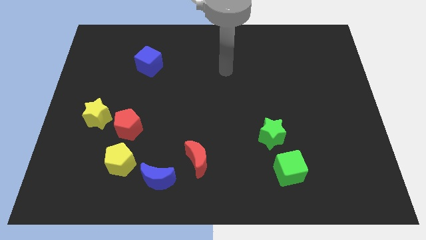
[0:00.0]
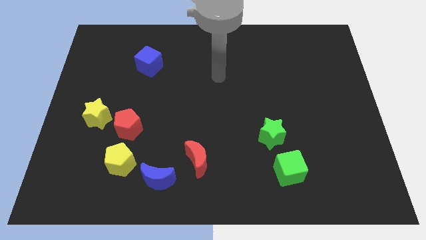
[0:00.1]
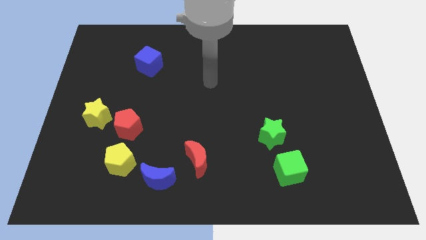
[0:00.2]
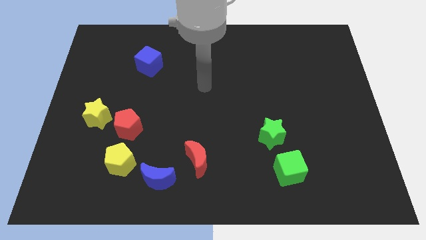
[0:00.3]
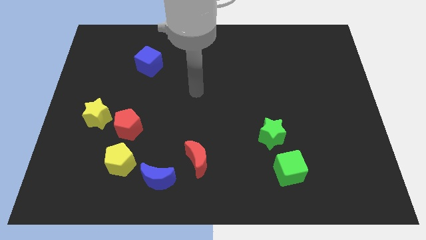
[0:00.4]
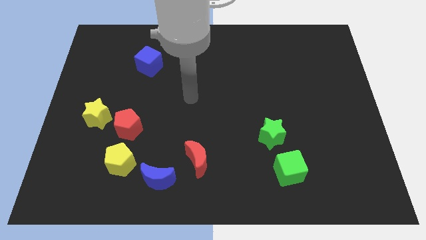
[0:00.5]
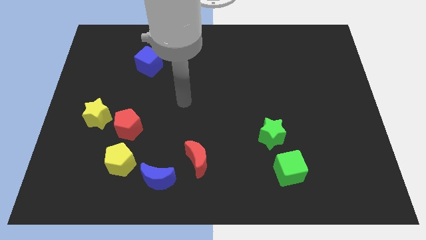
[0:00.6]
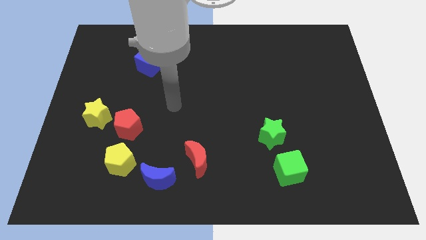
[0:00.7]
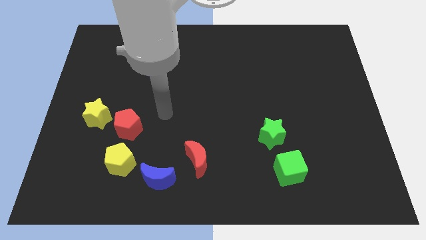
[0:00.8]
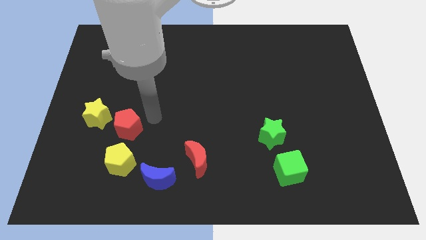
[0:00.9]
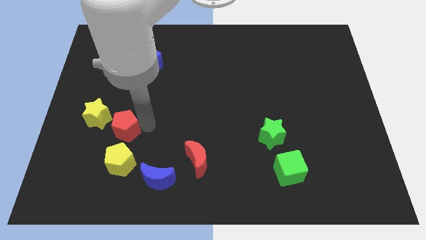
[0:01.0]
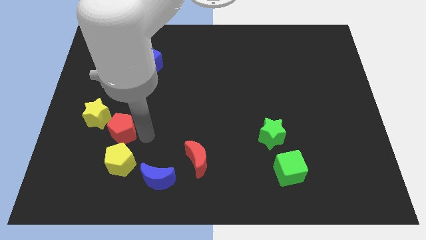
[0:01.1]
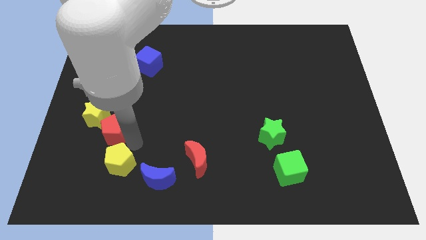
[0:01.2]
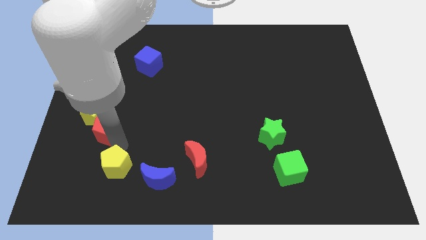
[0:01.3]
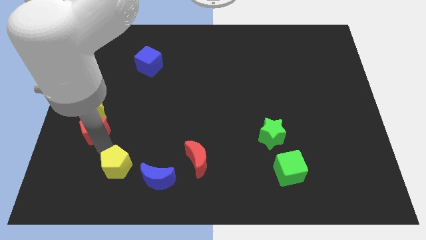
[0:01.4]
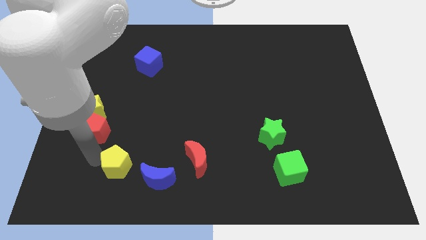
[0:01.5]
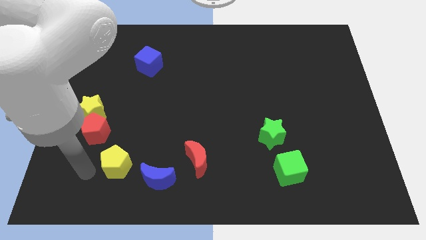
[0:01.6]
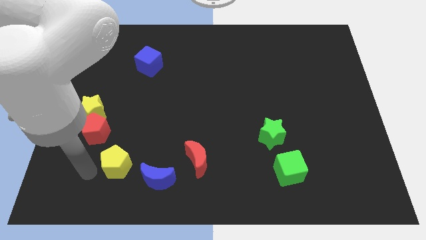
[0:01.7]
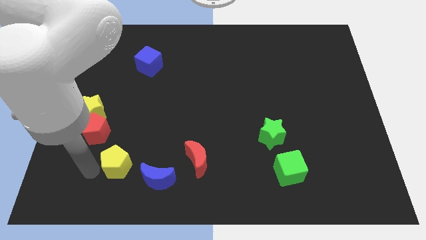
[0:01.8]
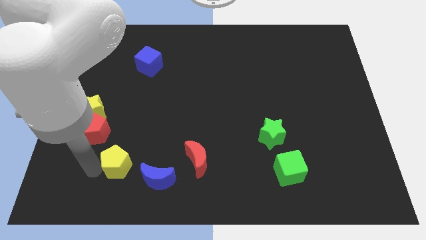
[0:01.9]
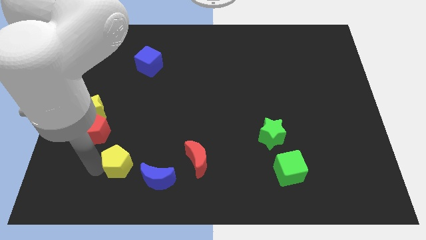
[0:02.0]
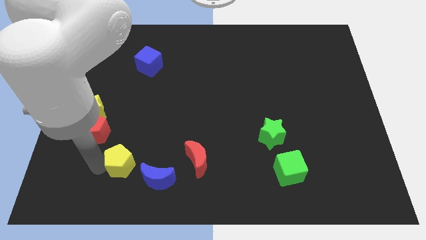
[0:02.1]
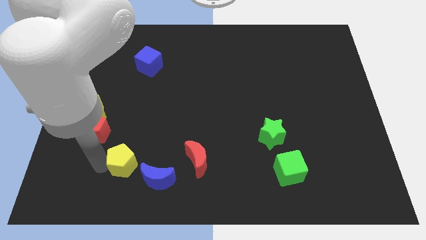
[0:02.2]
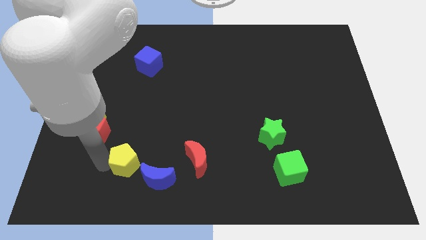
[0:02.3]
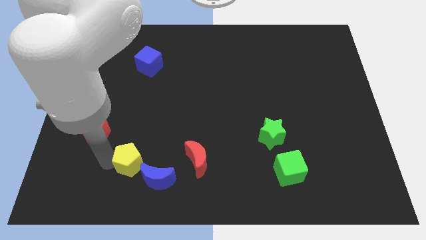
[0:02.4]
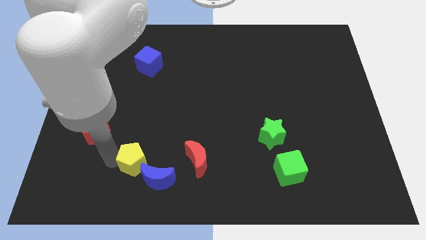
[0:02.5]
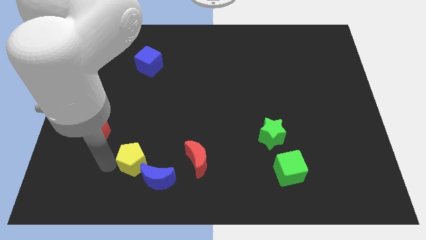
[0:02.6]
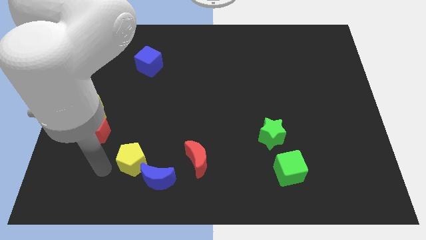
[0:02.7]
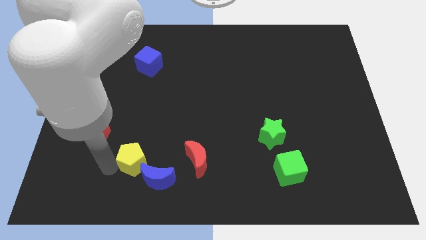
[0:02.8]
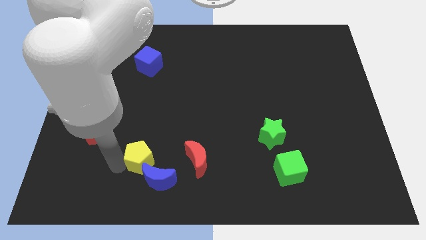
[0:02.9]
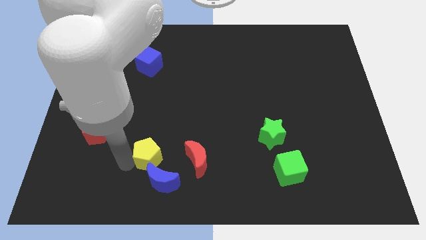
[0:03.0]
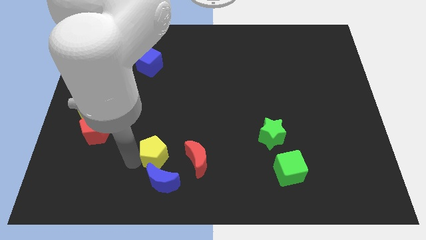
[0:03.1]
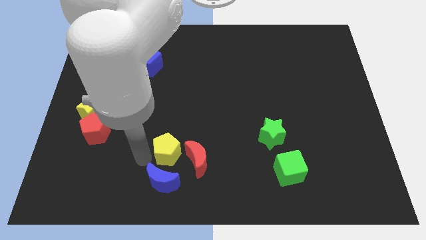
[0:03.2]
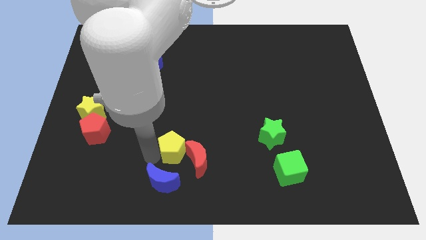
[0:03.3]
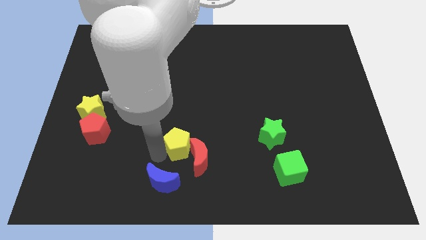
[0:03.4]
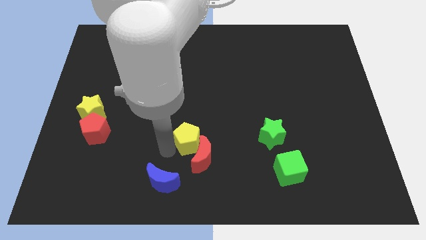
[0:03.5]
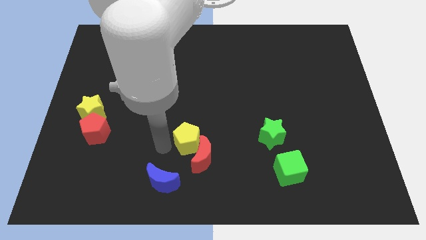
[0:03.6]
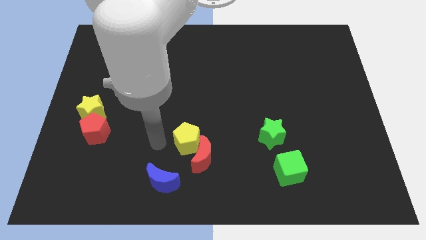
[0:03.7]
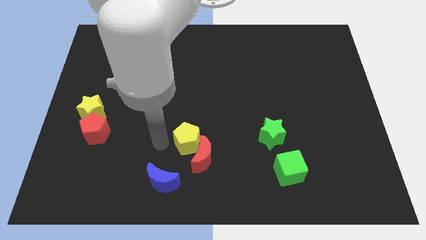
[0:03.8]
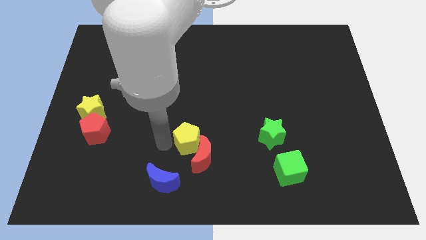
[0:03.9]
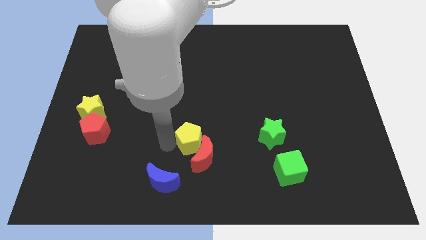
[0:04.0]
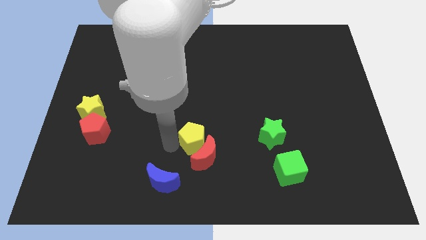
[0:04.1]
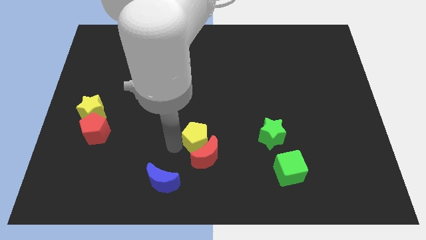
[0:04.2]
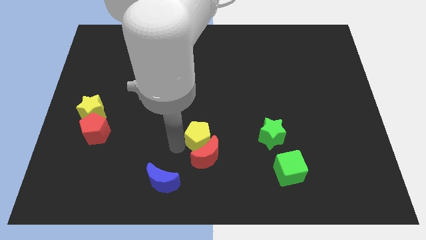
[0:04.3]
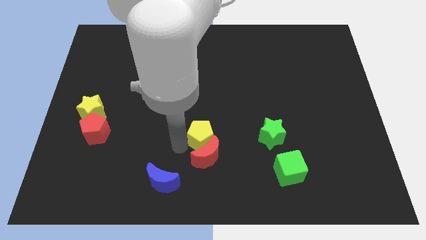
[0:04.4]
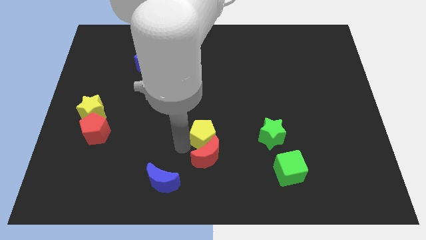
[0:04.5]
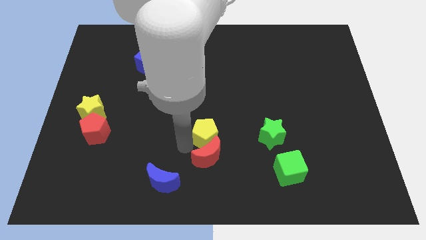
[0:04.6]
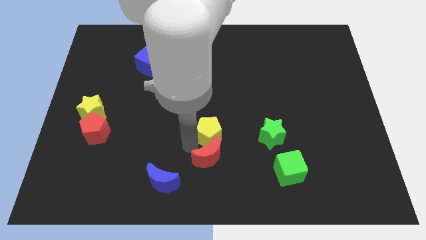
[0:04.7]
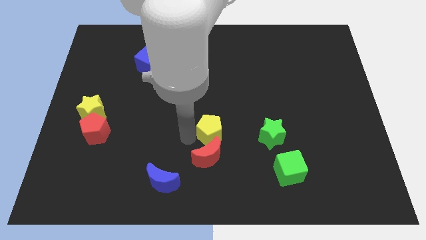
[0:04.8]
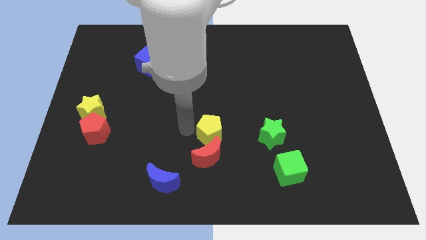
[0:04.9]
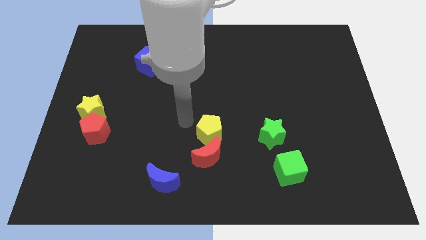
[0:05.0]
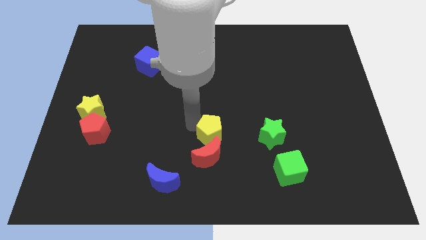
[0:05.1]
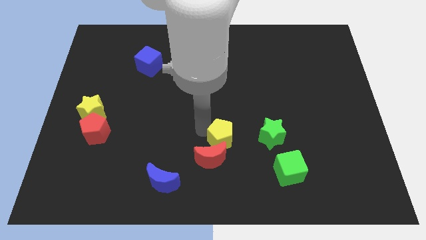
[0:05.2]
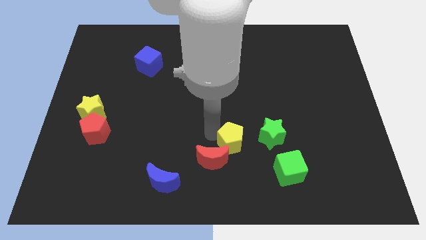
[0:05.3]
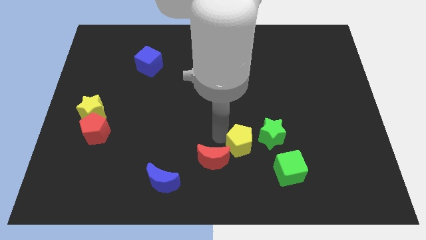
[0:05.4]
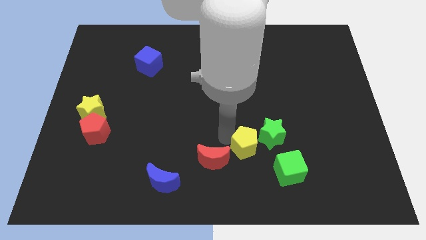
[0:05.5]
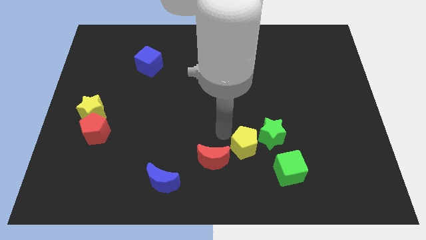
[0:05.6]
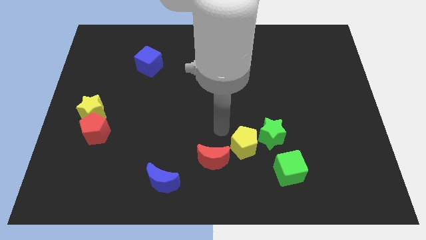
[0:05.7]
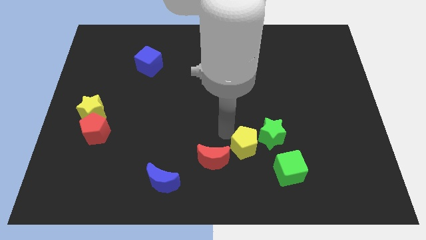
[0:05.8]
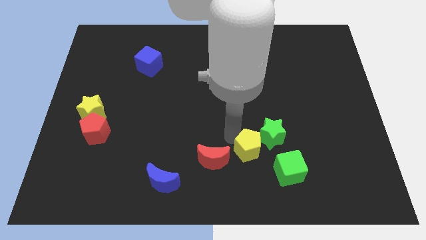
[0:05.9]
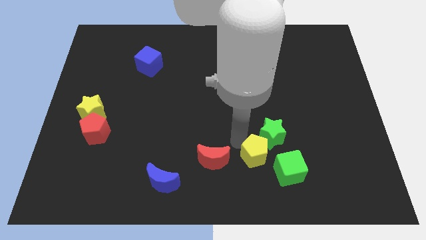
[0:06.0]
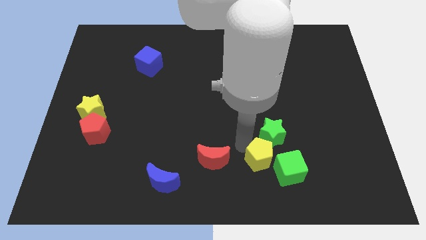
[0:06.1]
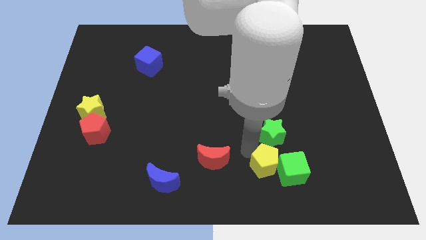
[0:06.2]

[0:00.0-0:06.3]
push the yellow pentagon towards the green cube

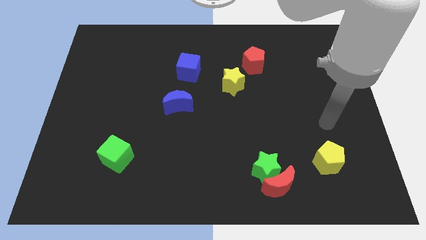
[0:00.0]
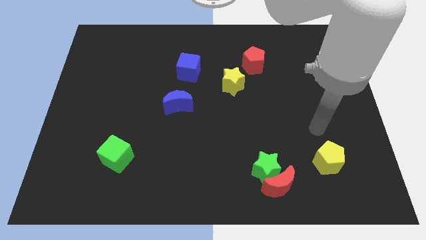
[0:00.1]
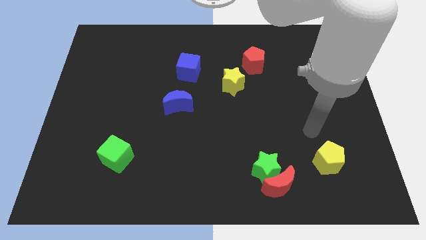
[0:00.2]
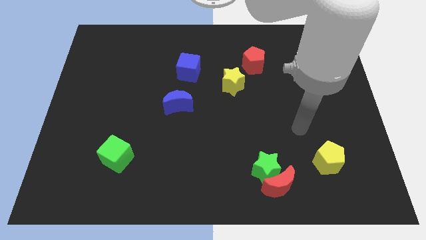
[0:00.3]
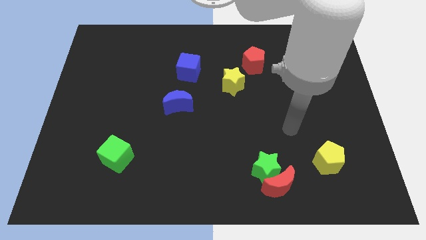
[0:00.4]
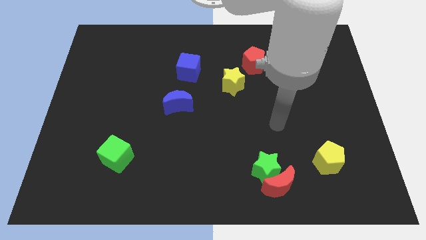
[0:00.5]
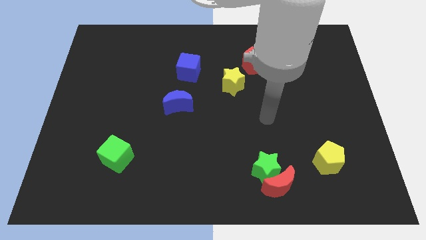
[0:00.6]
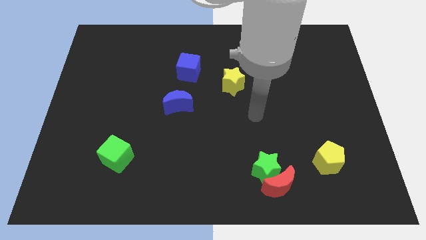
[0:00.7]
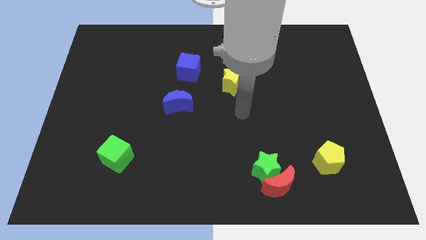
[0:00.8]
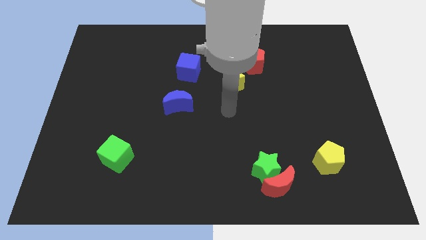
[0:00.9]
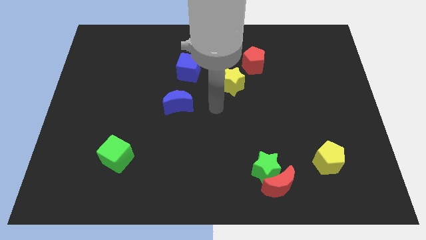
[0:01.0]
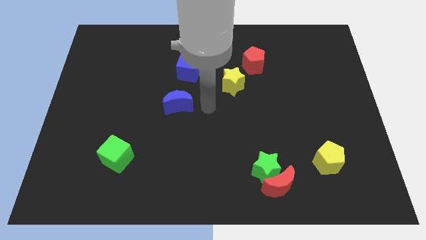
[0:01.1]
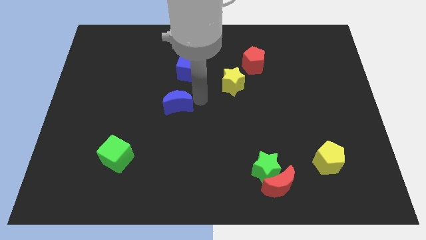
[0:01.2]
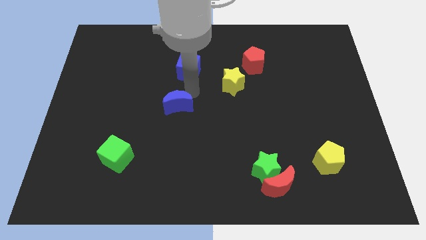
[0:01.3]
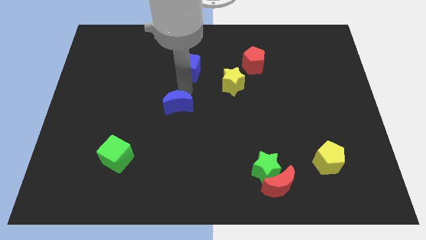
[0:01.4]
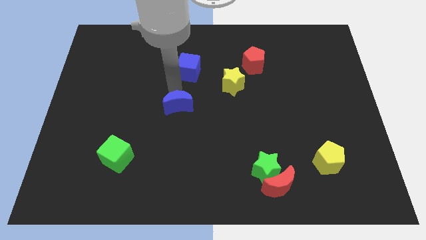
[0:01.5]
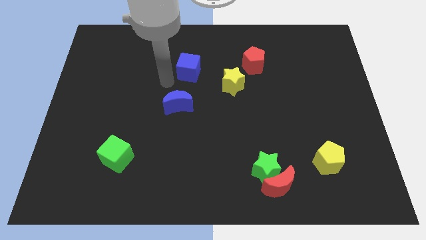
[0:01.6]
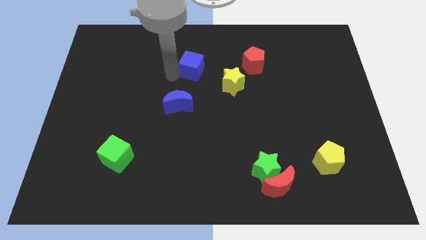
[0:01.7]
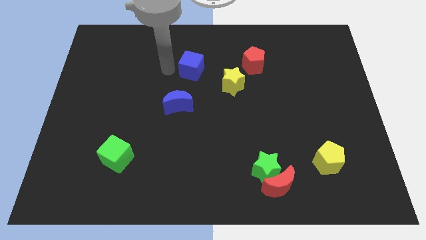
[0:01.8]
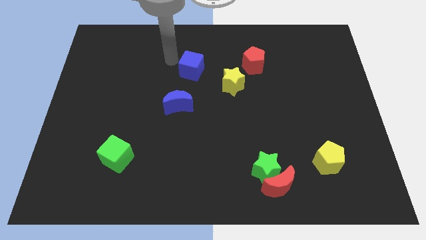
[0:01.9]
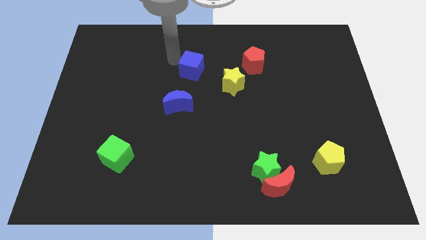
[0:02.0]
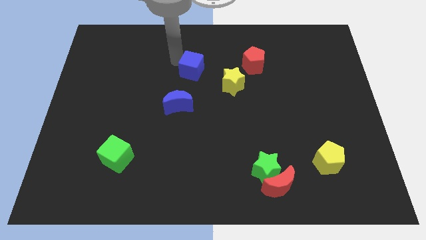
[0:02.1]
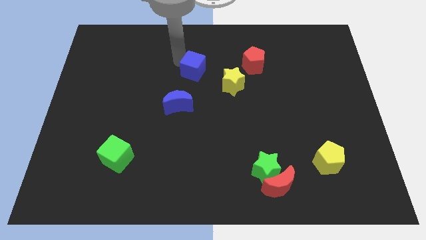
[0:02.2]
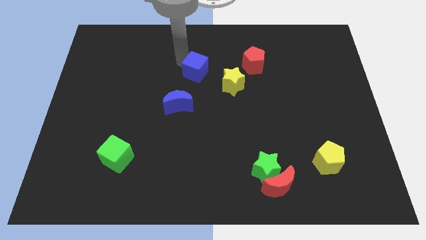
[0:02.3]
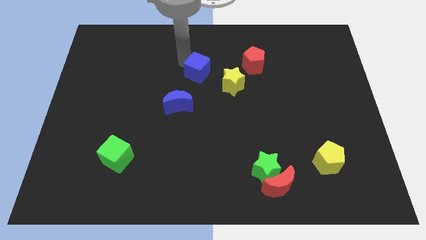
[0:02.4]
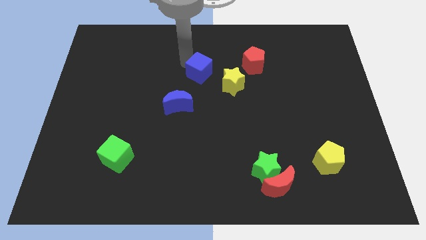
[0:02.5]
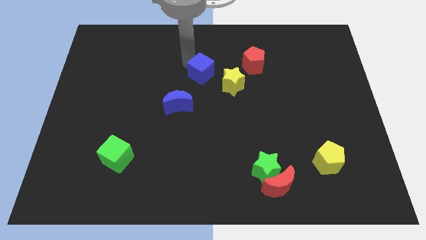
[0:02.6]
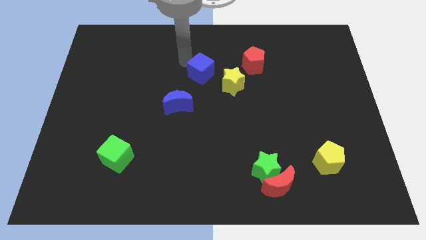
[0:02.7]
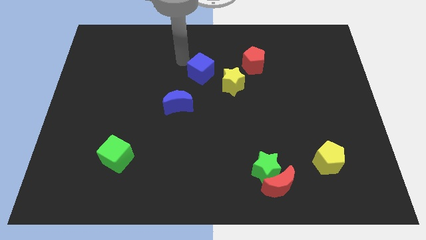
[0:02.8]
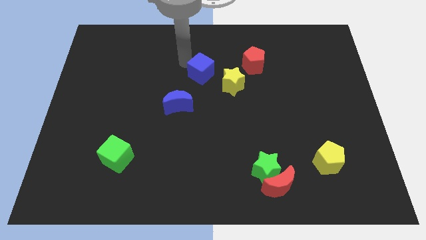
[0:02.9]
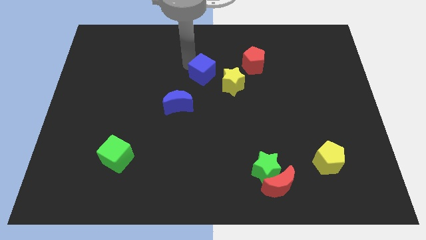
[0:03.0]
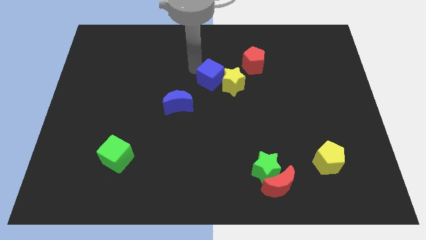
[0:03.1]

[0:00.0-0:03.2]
put the blue cube next to the yellow star
